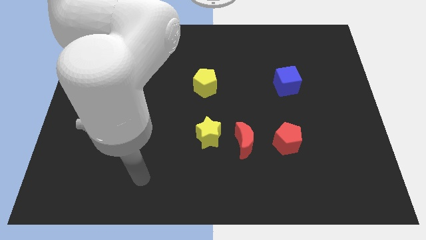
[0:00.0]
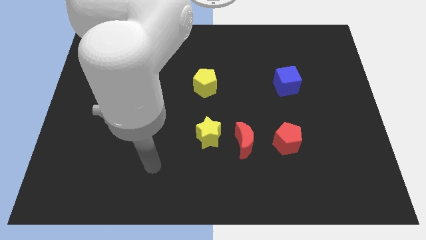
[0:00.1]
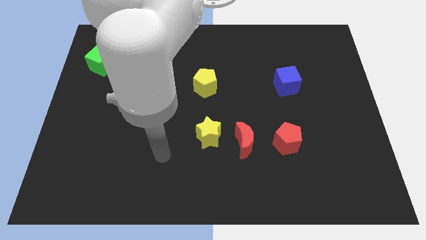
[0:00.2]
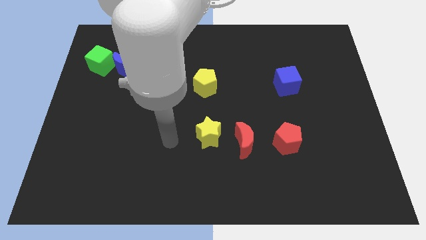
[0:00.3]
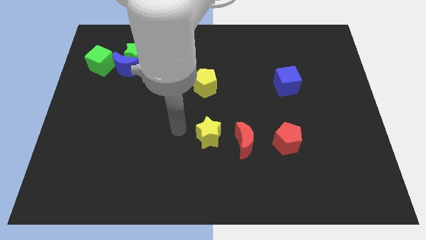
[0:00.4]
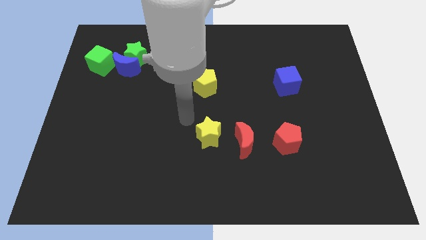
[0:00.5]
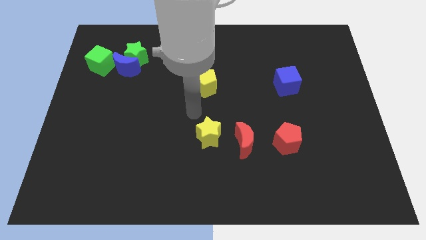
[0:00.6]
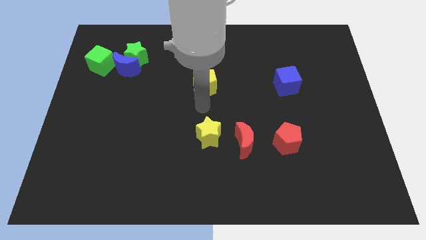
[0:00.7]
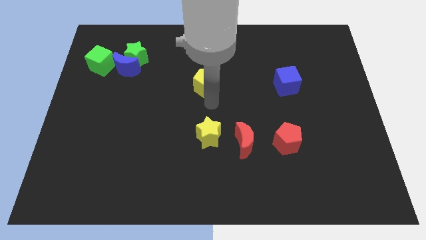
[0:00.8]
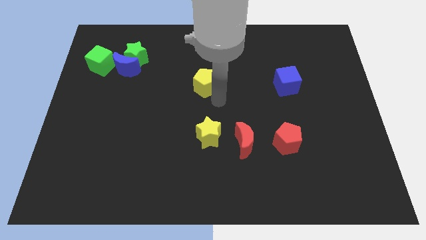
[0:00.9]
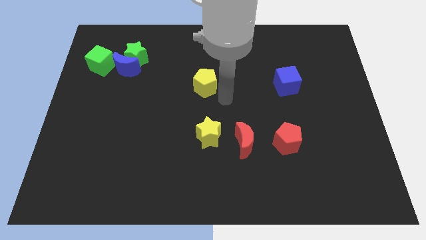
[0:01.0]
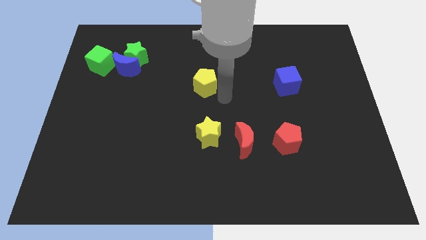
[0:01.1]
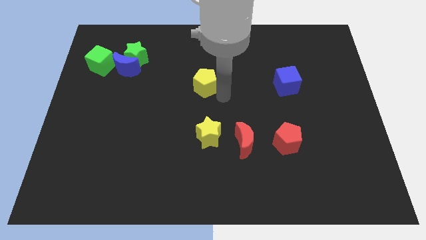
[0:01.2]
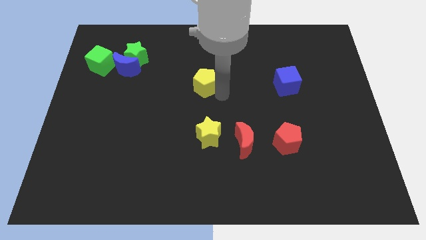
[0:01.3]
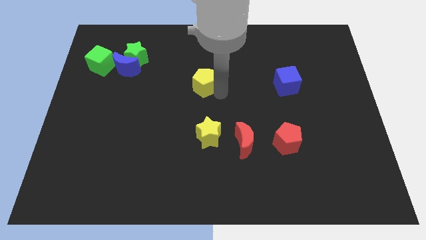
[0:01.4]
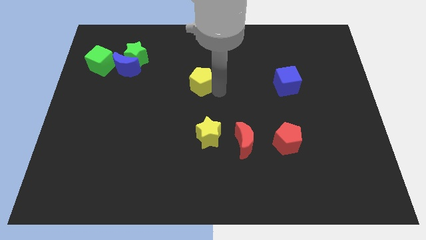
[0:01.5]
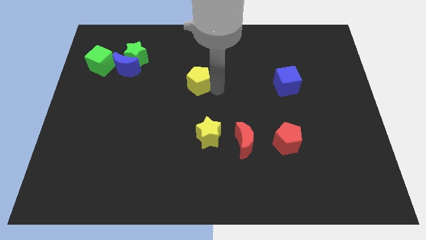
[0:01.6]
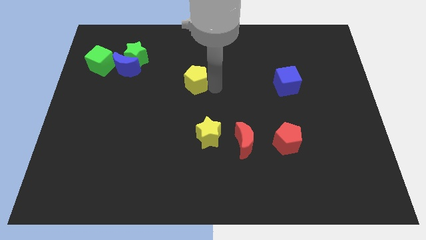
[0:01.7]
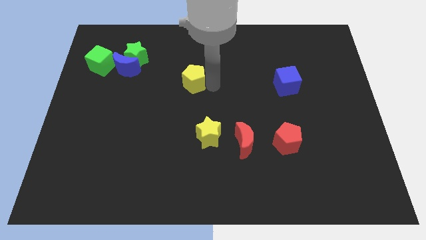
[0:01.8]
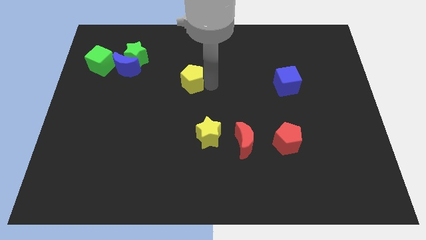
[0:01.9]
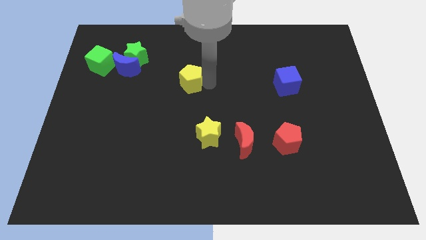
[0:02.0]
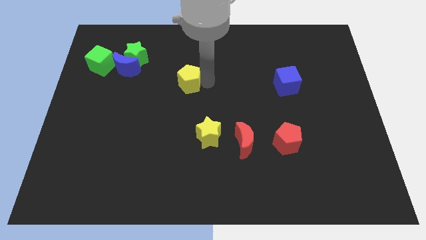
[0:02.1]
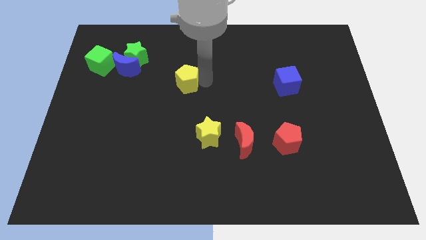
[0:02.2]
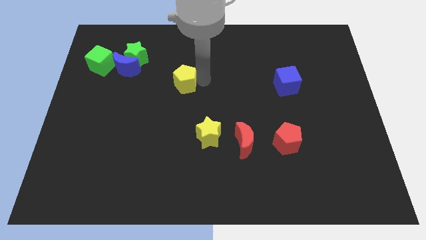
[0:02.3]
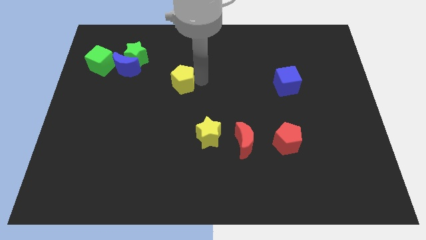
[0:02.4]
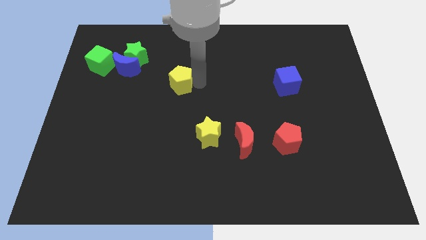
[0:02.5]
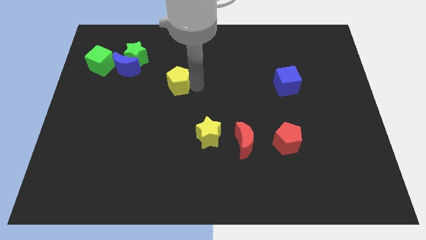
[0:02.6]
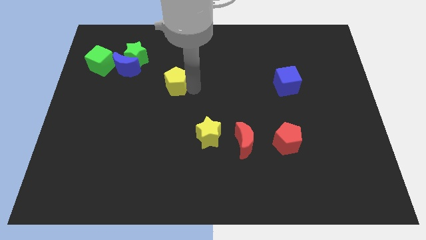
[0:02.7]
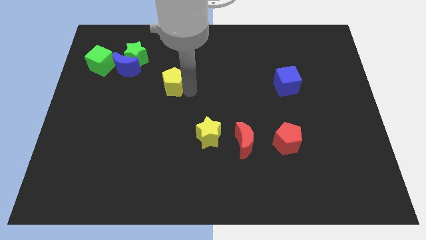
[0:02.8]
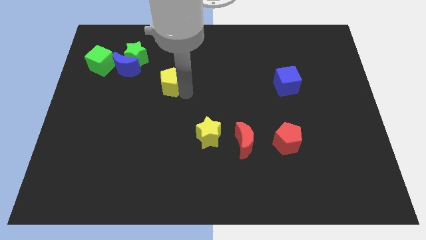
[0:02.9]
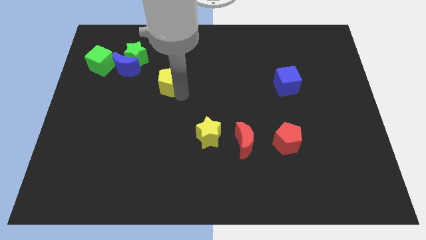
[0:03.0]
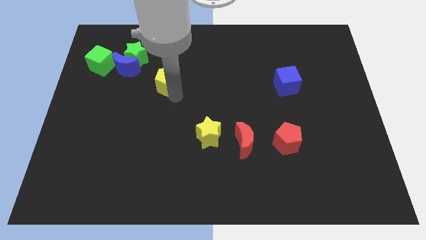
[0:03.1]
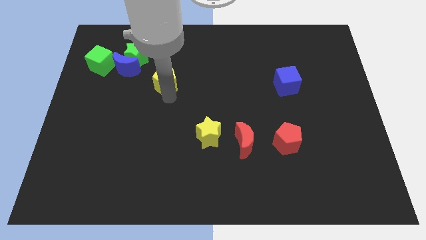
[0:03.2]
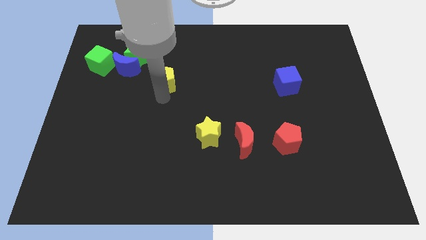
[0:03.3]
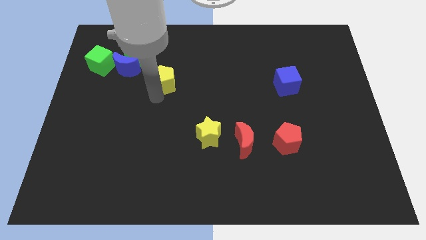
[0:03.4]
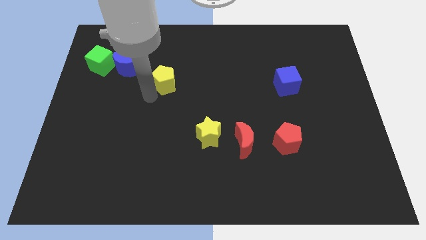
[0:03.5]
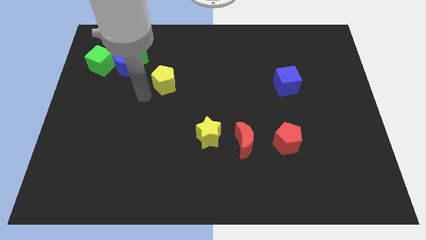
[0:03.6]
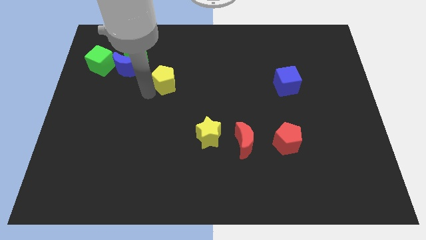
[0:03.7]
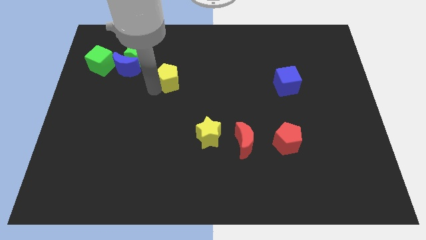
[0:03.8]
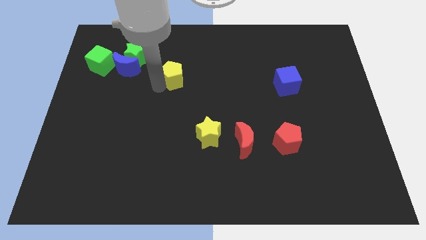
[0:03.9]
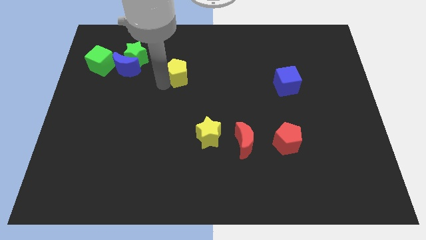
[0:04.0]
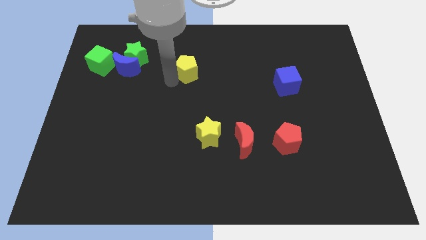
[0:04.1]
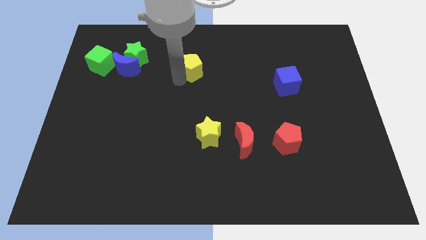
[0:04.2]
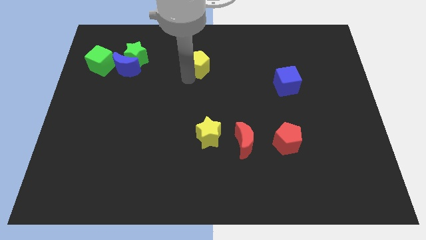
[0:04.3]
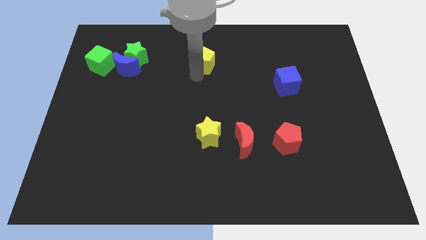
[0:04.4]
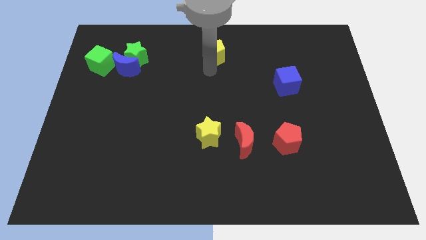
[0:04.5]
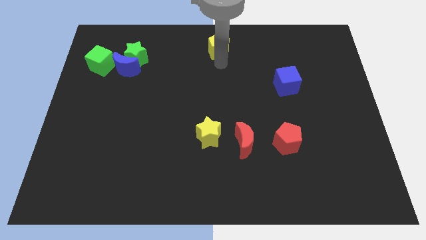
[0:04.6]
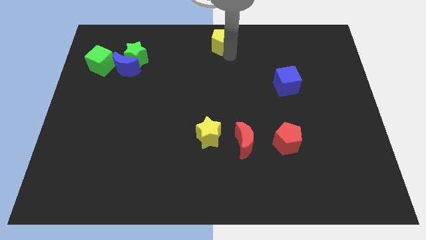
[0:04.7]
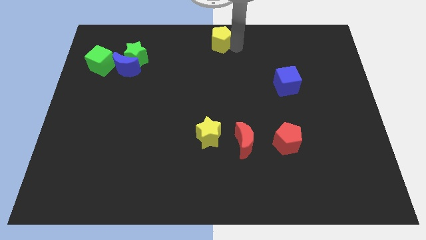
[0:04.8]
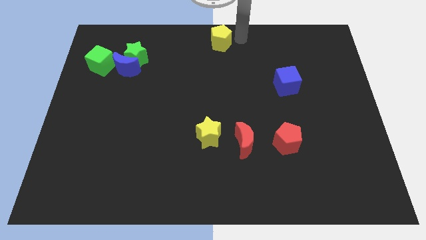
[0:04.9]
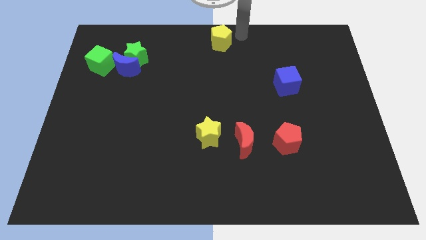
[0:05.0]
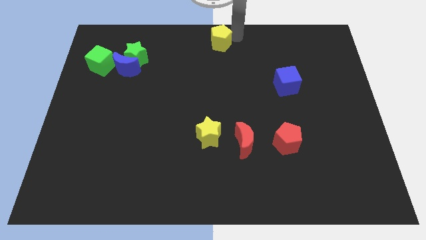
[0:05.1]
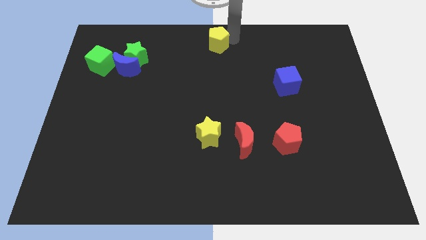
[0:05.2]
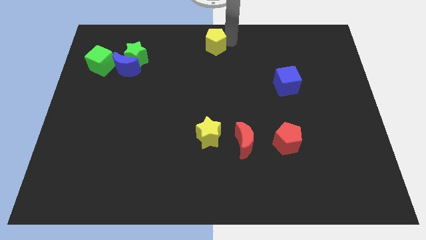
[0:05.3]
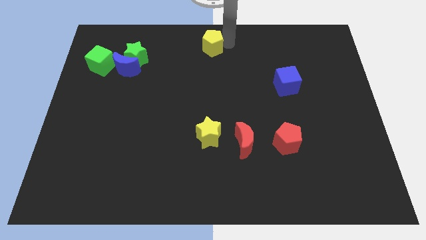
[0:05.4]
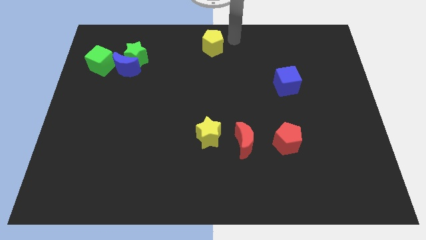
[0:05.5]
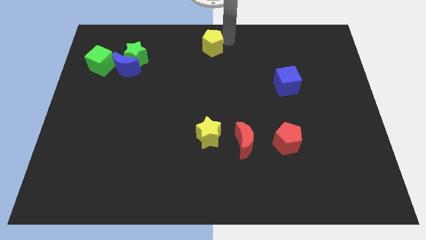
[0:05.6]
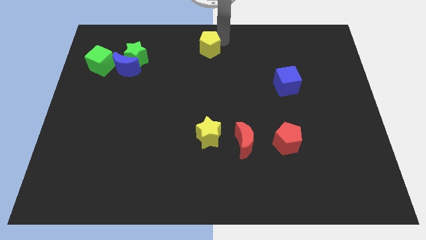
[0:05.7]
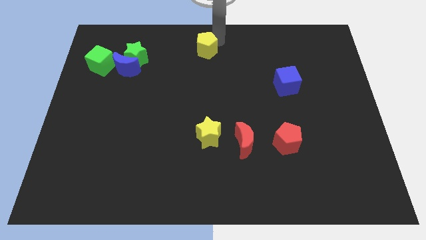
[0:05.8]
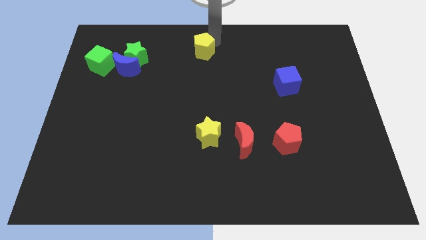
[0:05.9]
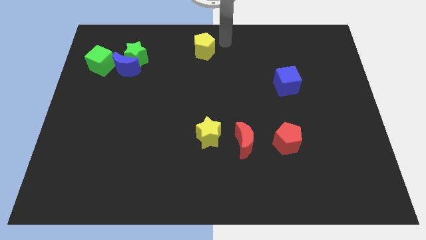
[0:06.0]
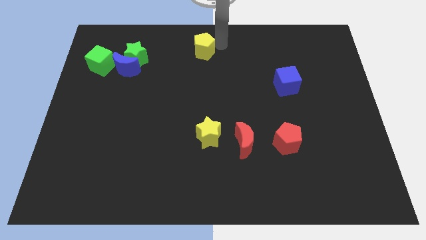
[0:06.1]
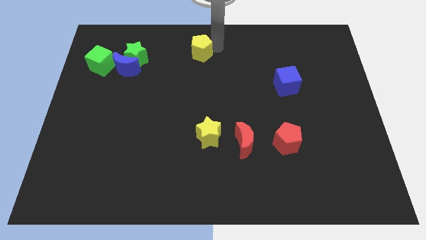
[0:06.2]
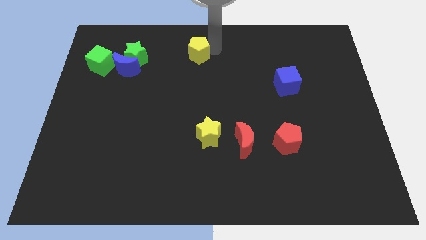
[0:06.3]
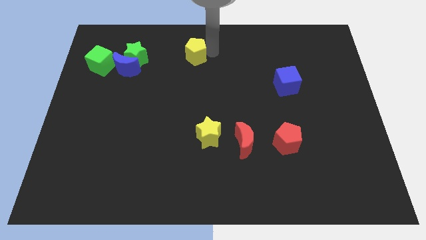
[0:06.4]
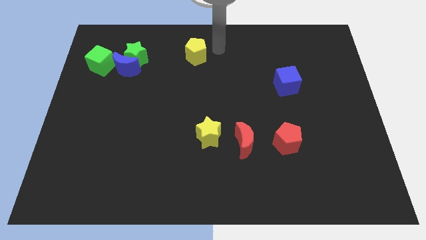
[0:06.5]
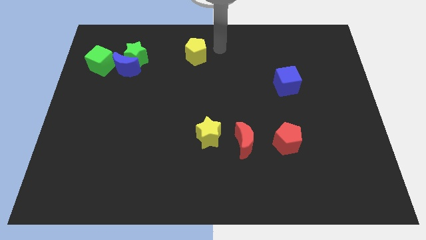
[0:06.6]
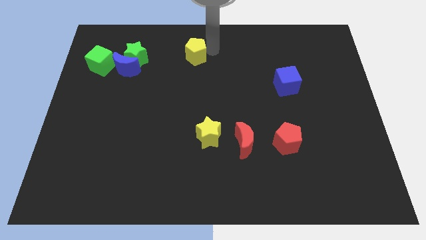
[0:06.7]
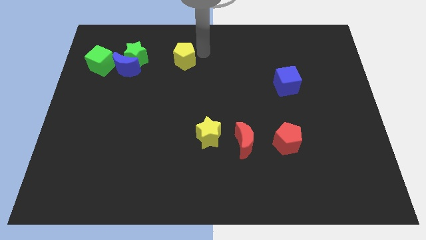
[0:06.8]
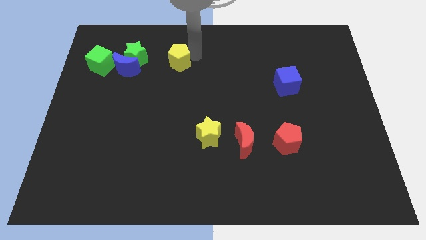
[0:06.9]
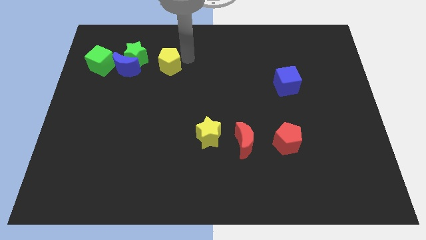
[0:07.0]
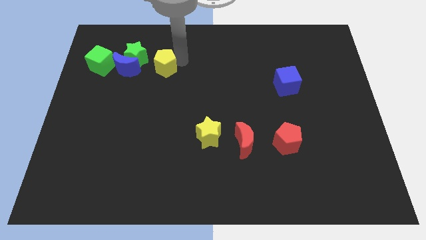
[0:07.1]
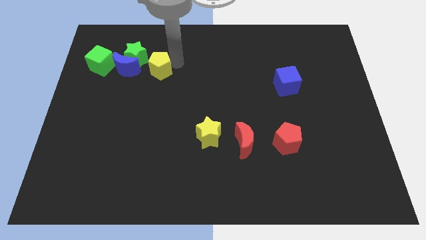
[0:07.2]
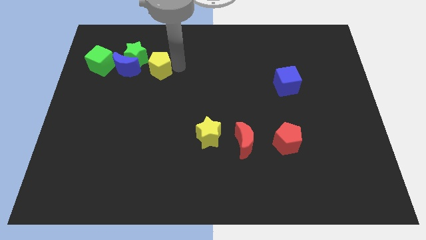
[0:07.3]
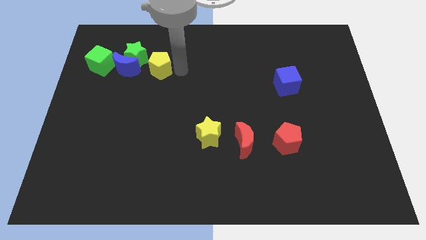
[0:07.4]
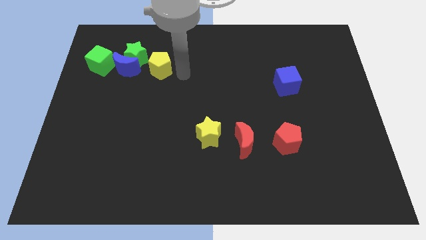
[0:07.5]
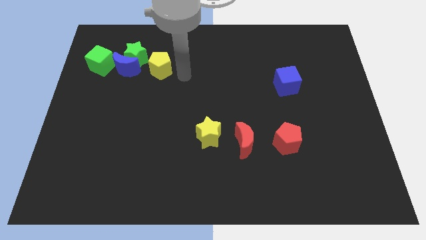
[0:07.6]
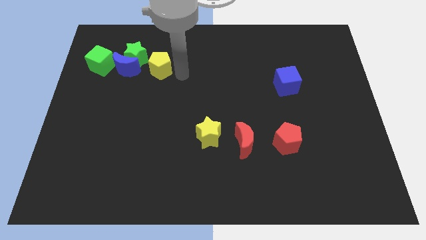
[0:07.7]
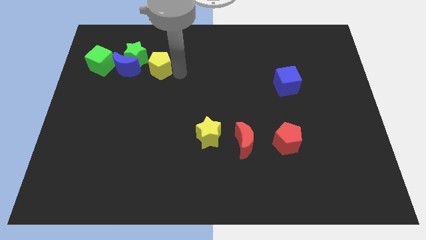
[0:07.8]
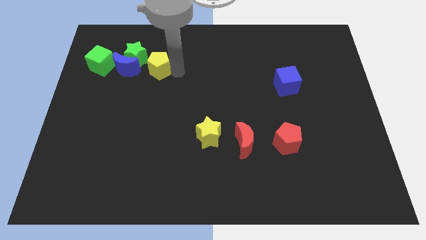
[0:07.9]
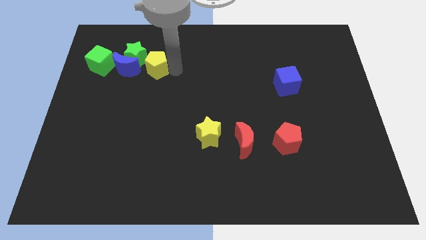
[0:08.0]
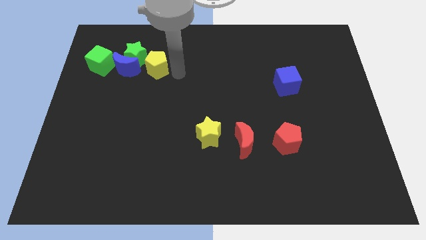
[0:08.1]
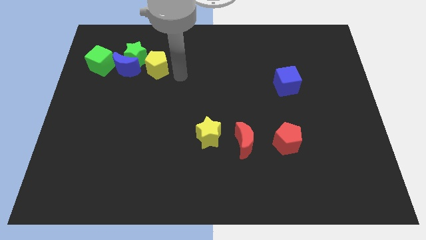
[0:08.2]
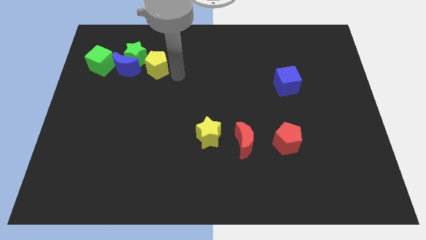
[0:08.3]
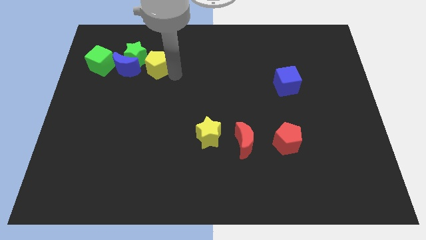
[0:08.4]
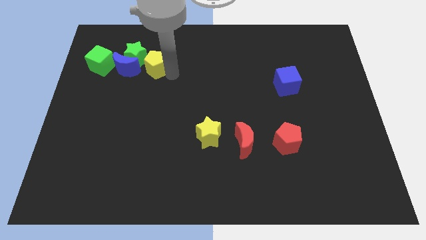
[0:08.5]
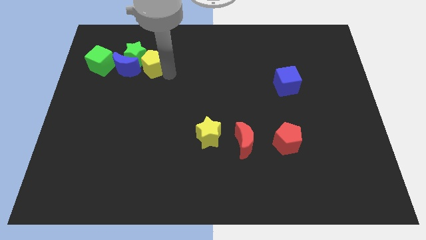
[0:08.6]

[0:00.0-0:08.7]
move the yellow pentagon towards the green star
